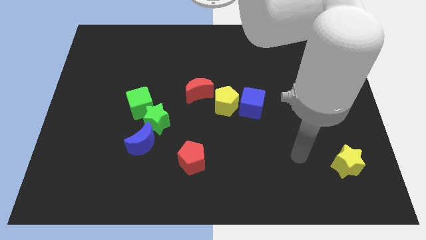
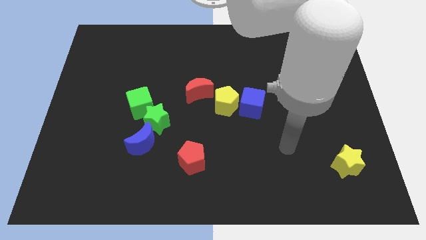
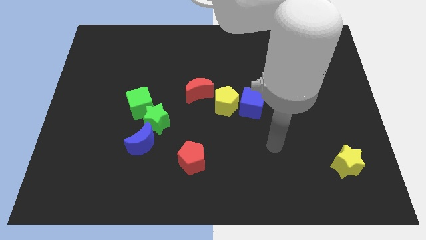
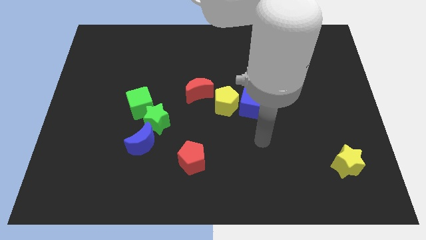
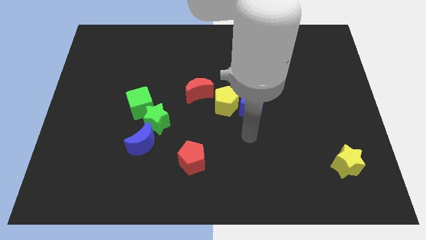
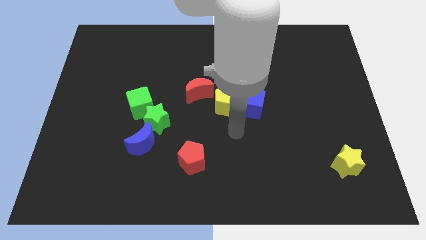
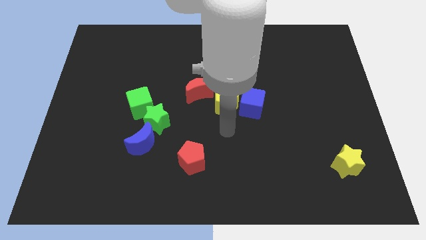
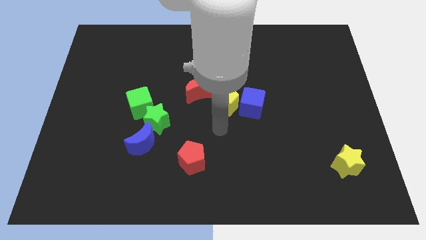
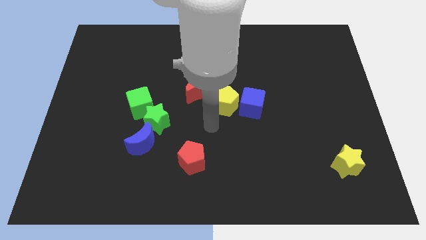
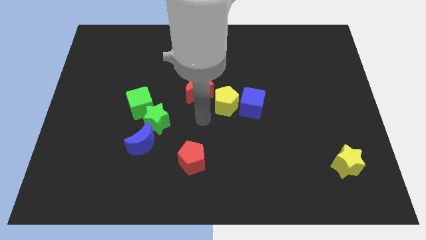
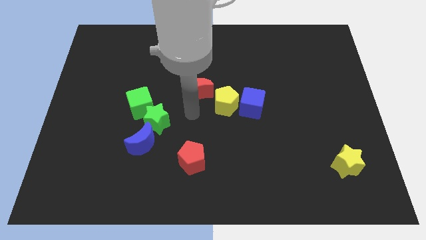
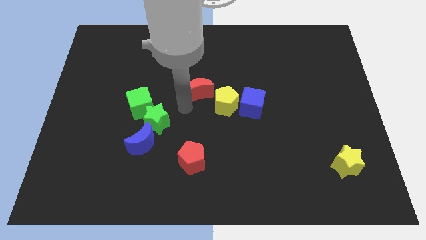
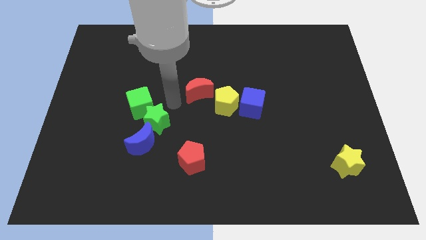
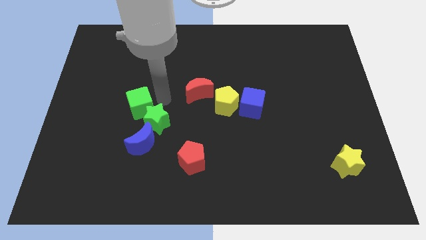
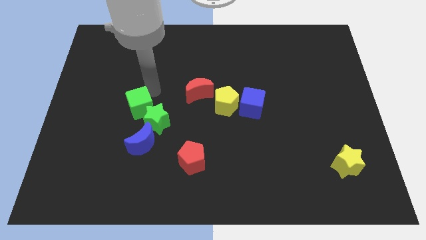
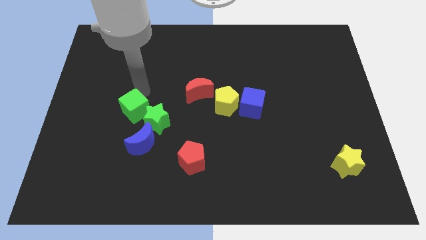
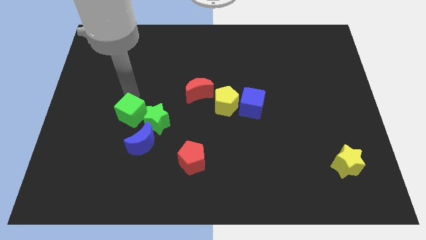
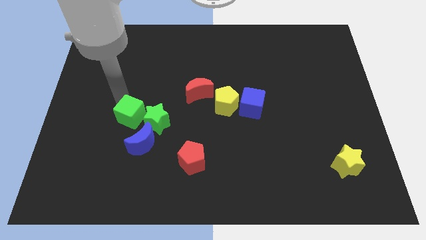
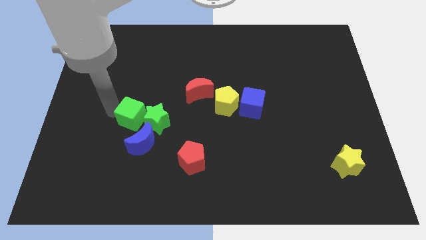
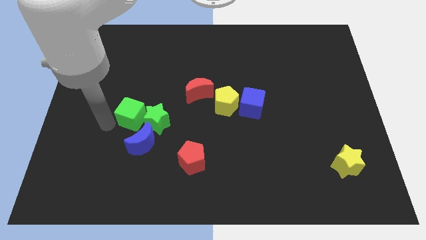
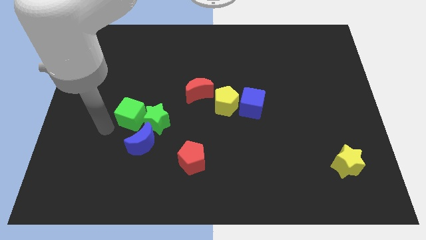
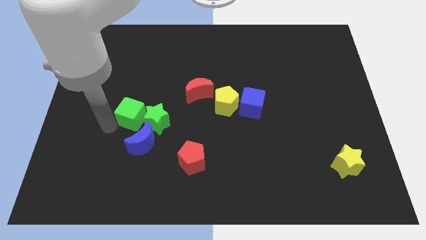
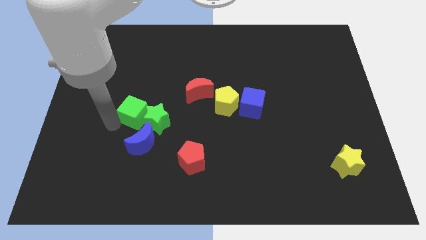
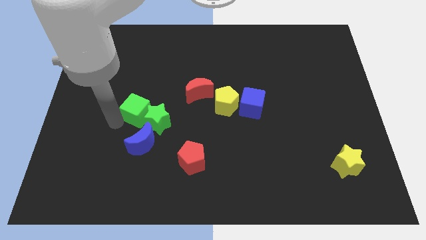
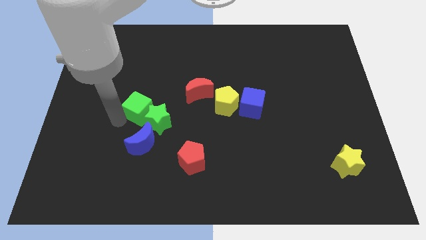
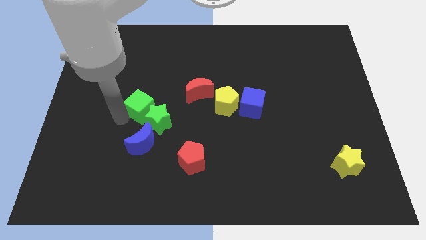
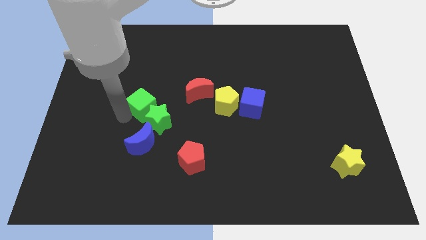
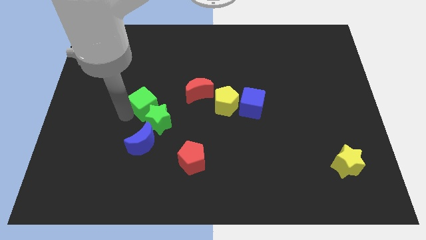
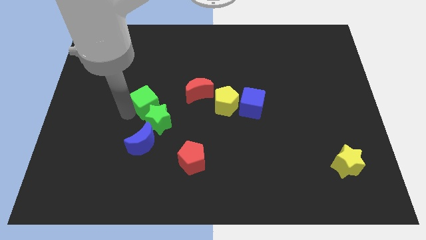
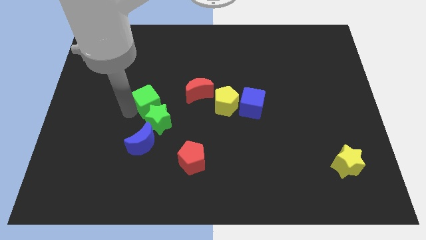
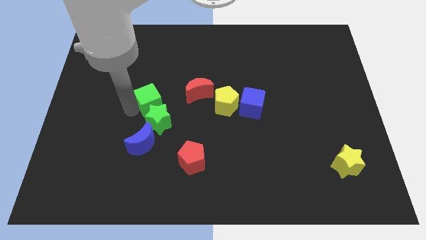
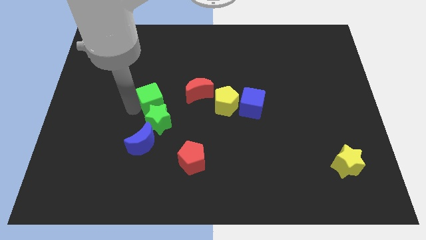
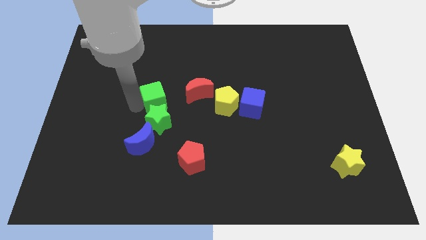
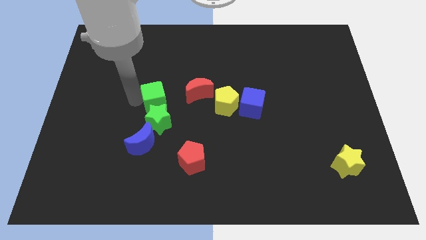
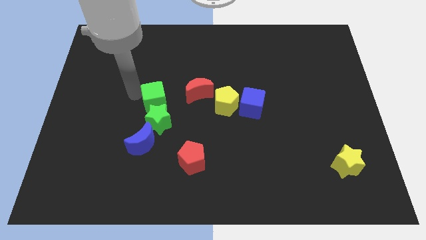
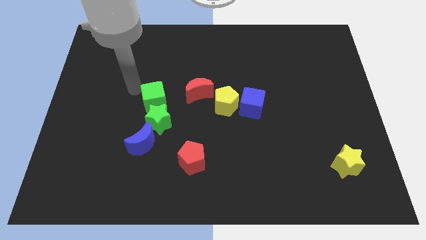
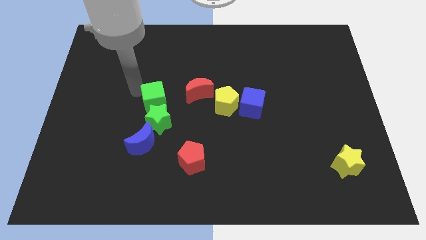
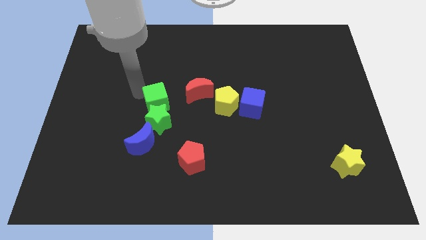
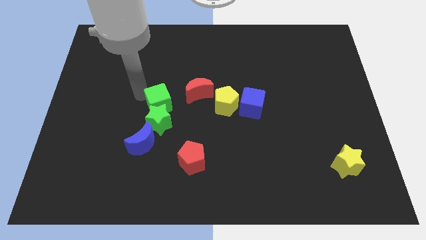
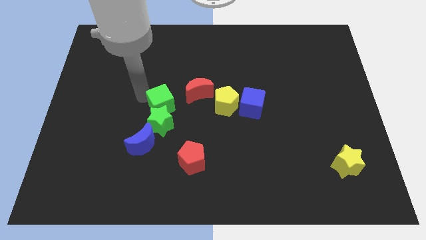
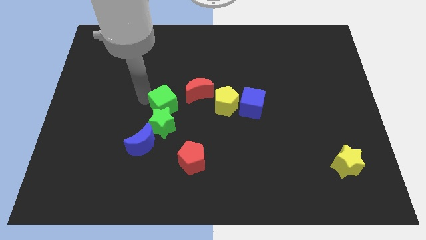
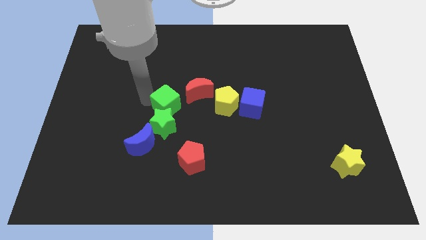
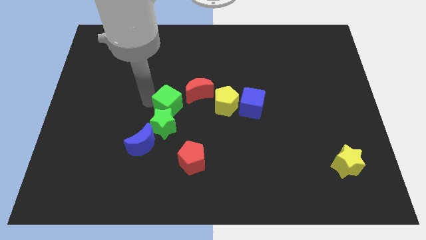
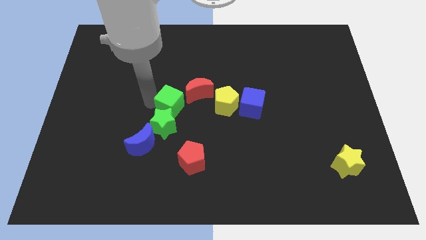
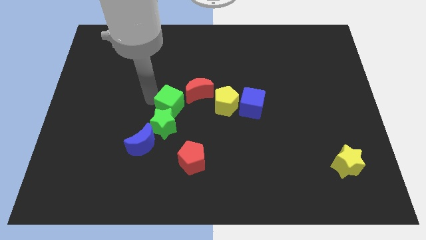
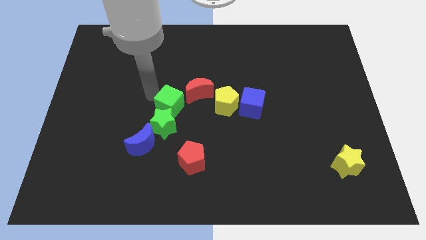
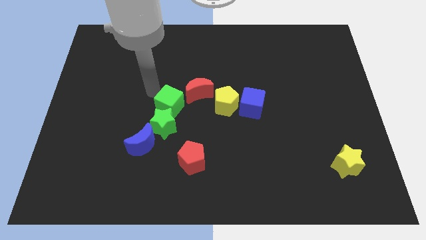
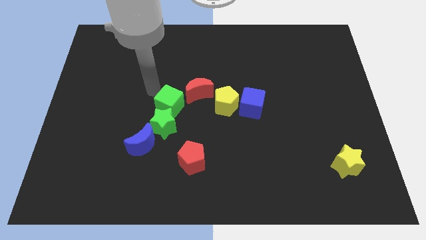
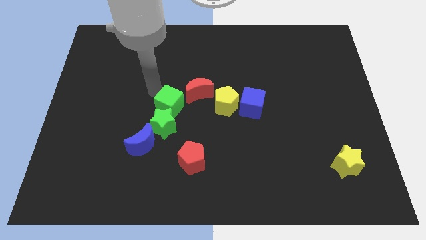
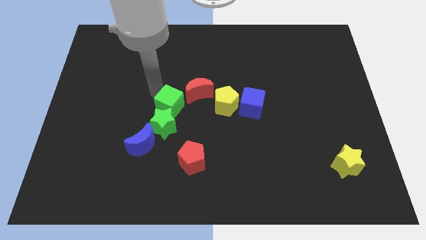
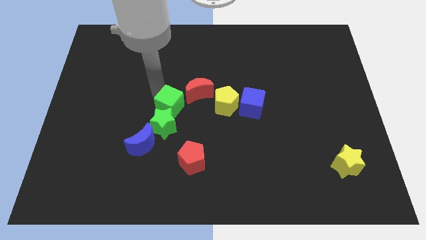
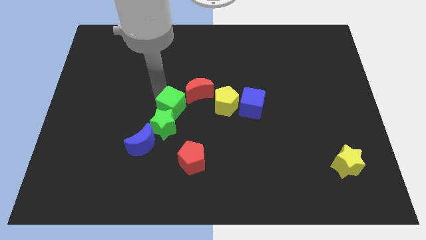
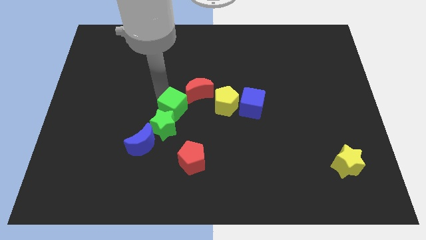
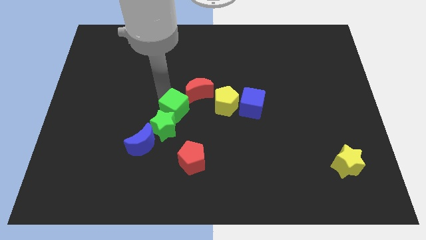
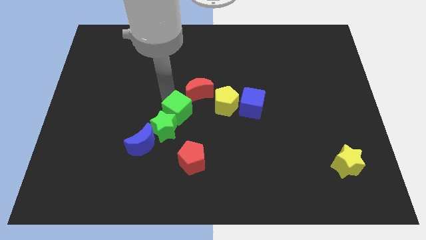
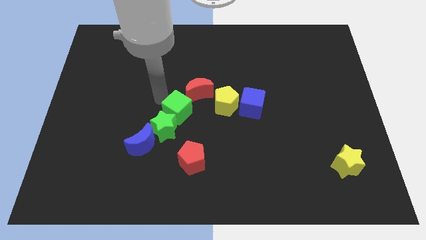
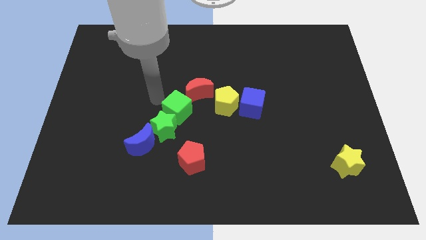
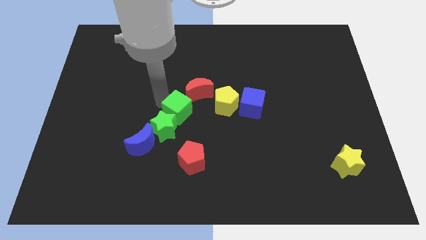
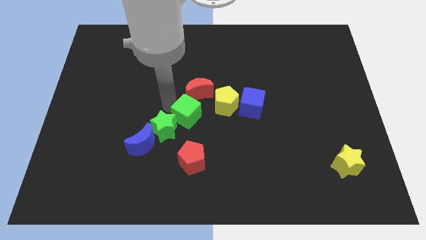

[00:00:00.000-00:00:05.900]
slide the green cube to the right of the green star

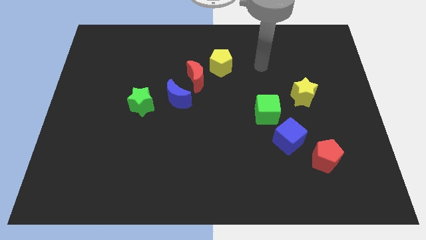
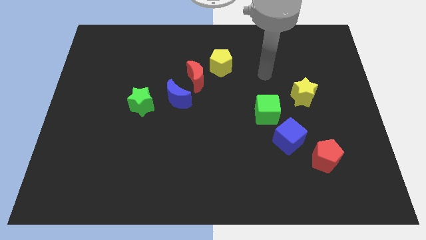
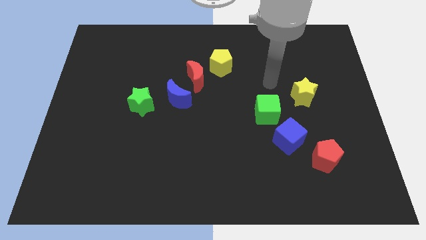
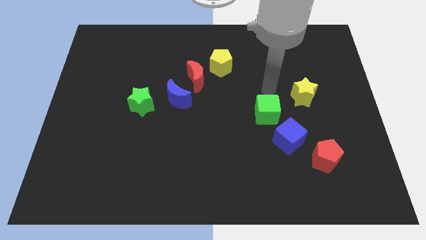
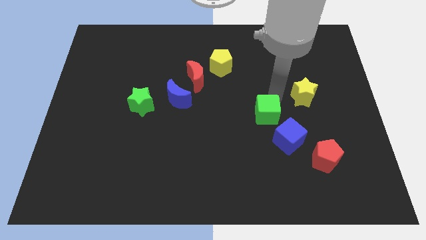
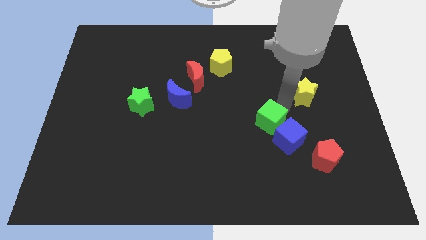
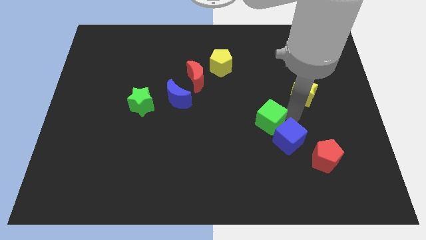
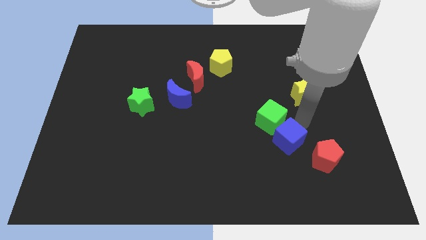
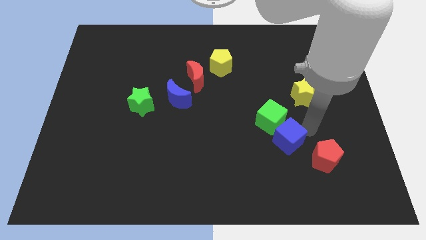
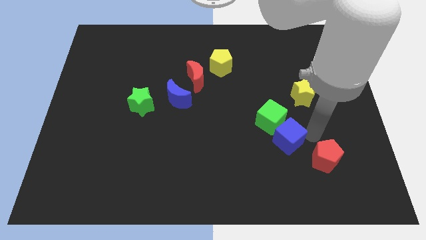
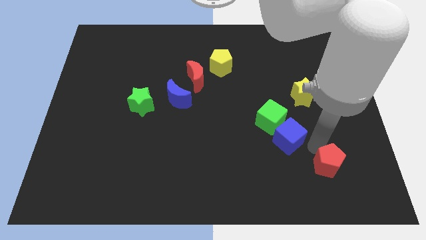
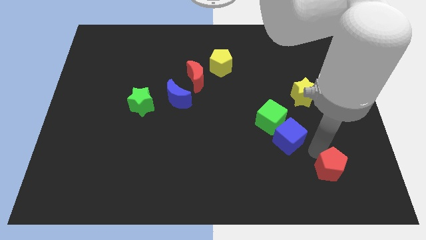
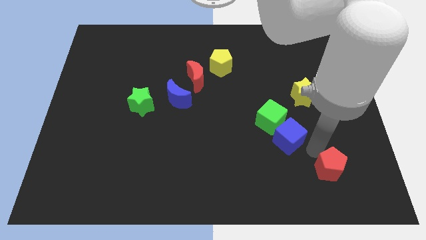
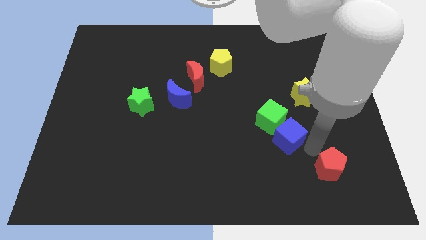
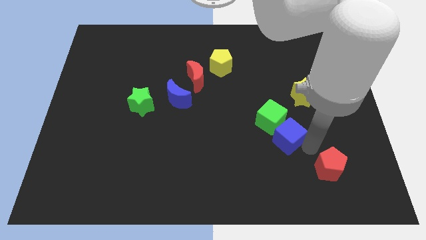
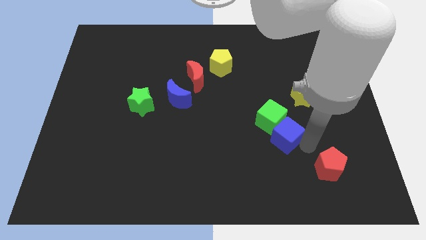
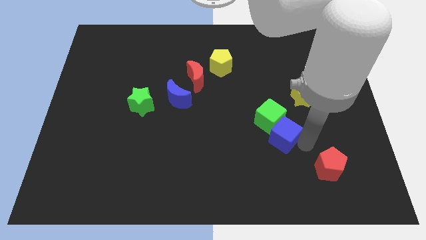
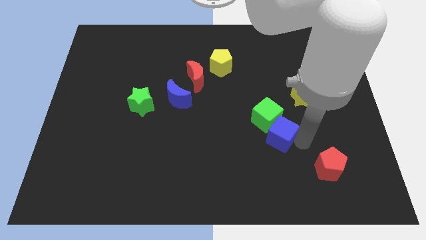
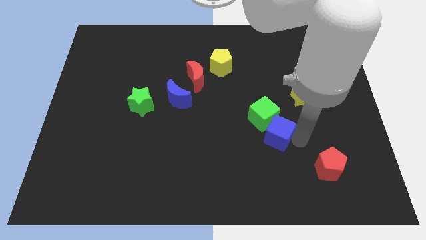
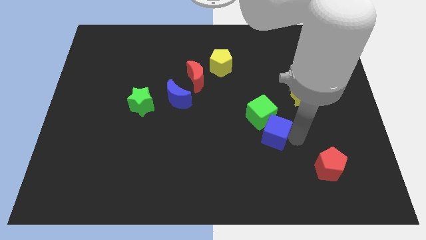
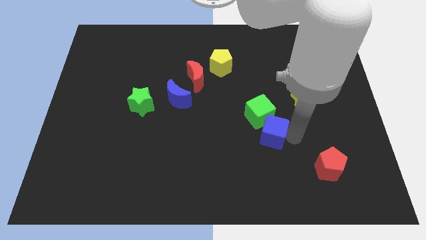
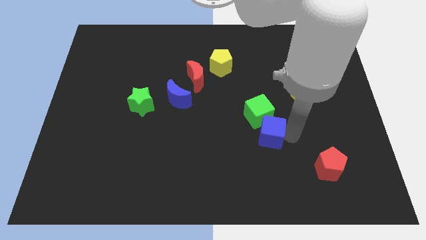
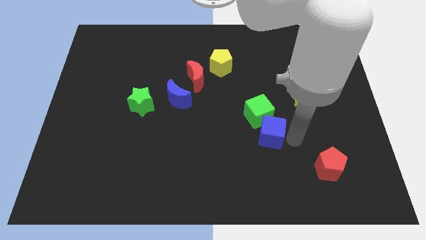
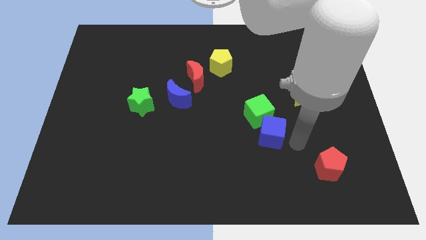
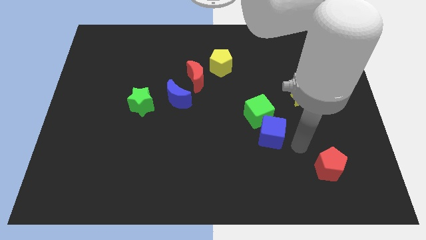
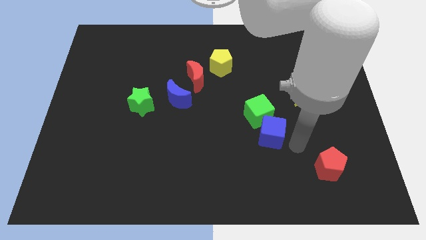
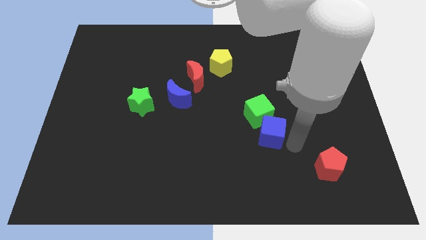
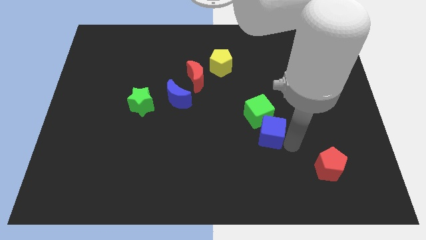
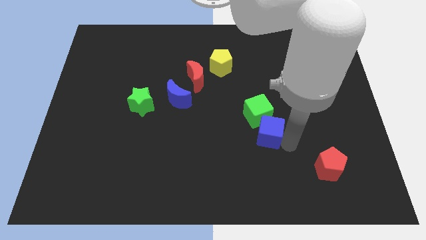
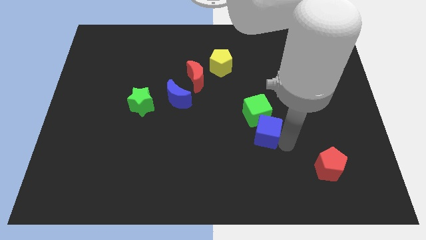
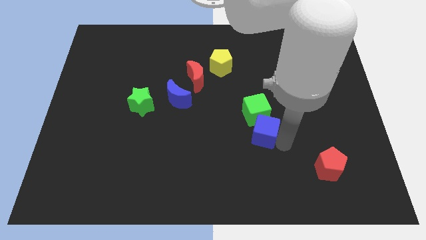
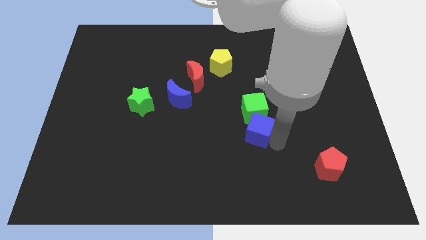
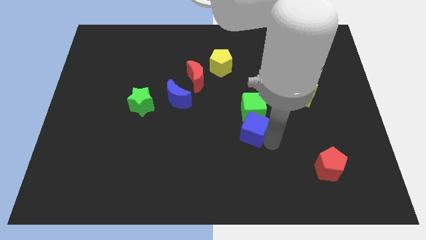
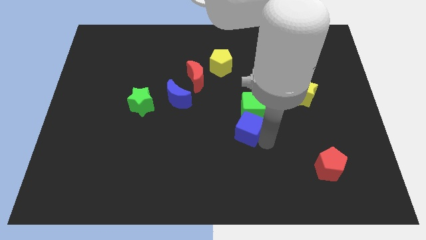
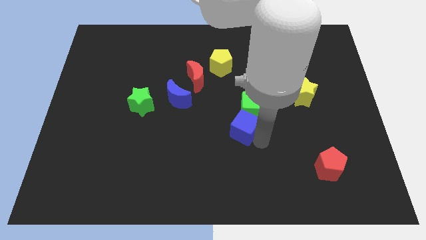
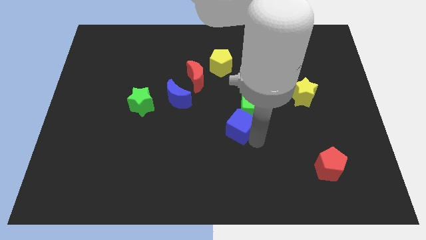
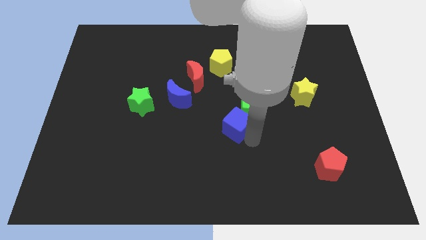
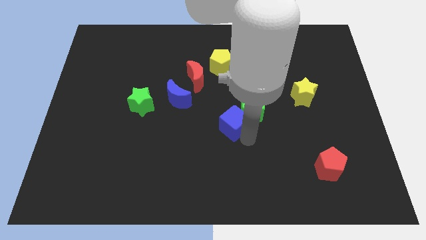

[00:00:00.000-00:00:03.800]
put the blue cube to the left of the green cube
